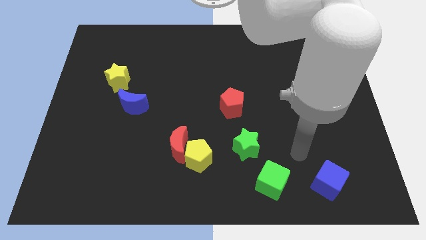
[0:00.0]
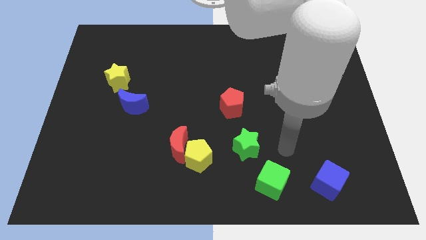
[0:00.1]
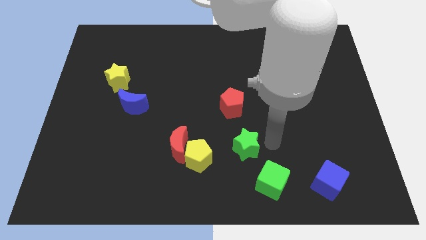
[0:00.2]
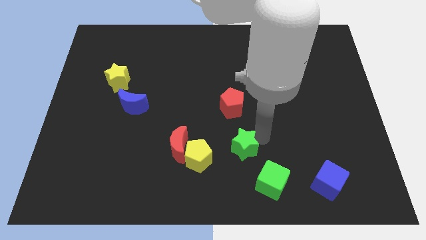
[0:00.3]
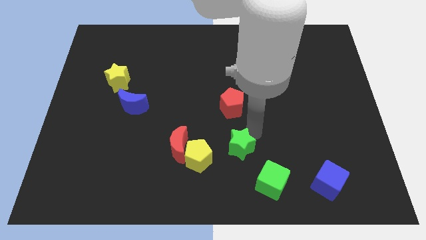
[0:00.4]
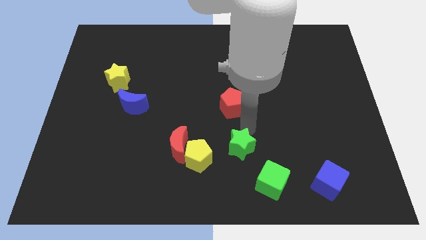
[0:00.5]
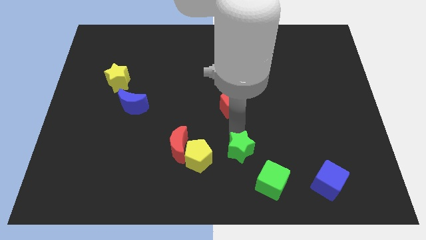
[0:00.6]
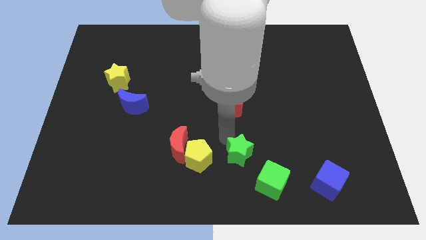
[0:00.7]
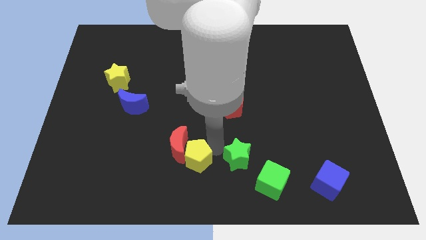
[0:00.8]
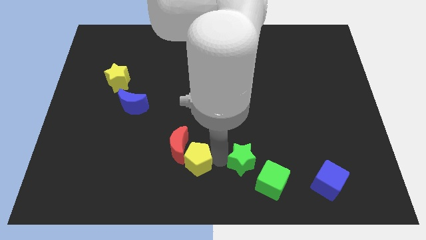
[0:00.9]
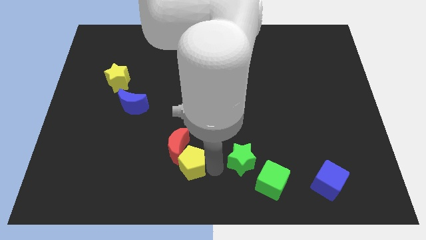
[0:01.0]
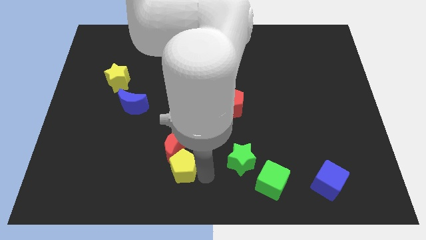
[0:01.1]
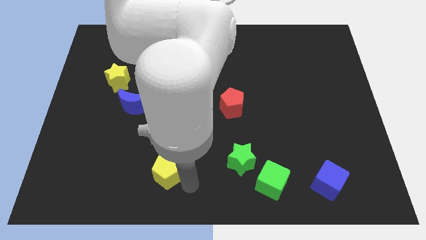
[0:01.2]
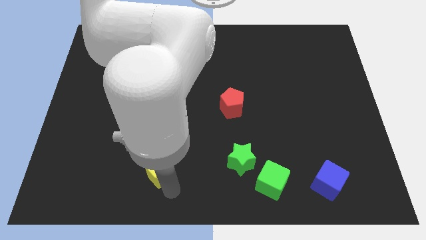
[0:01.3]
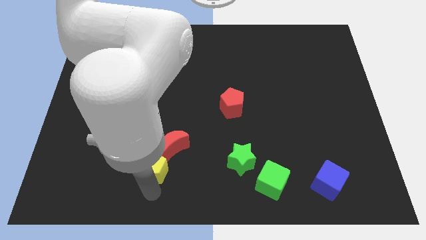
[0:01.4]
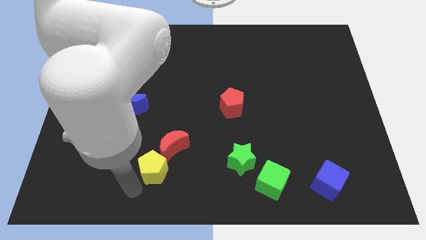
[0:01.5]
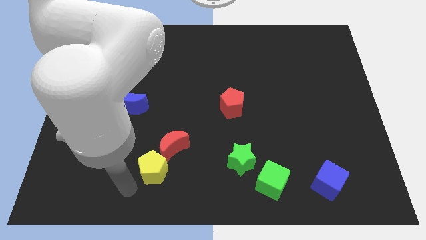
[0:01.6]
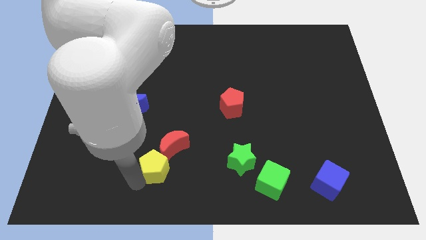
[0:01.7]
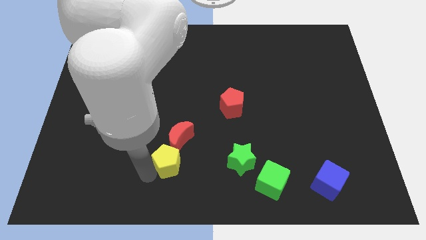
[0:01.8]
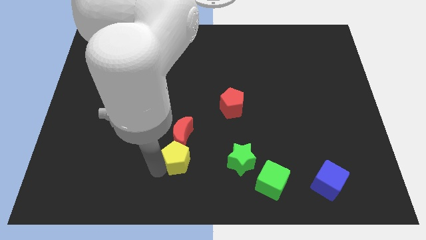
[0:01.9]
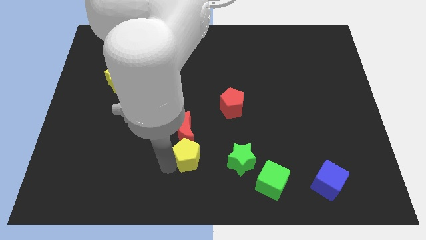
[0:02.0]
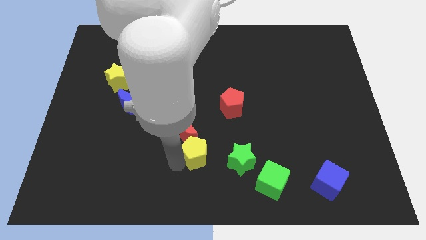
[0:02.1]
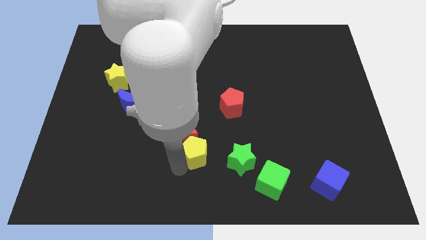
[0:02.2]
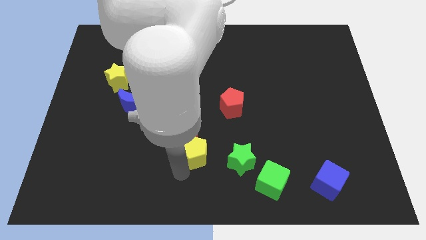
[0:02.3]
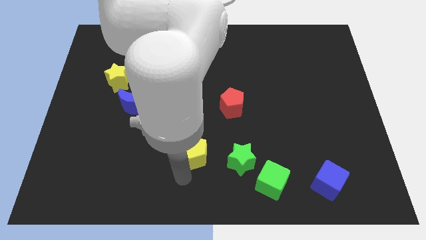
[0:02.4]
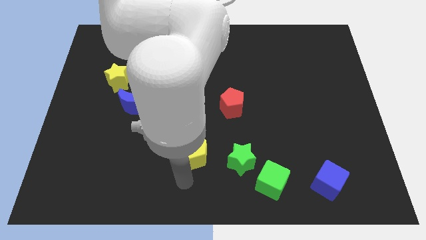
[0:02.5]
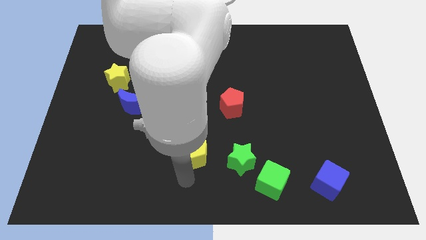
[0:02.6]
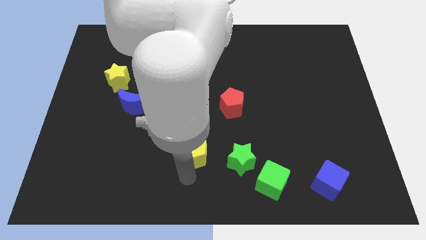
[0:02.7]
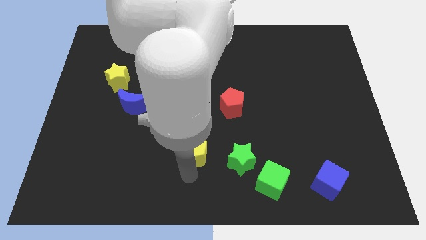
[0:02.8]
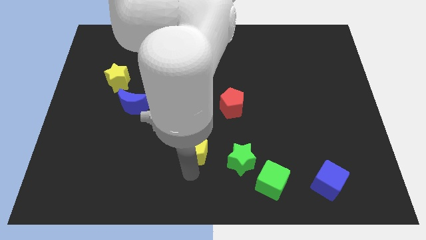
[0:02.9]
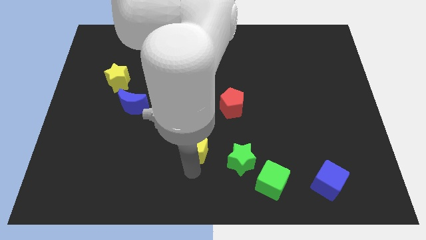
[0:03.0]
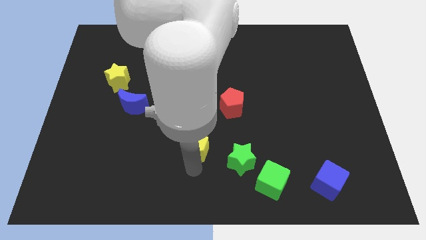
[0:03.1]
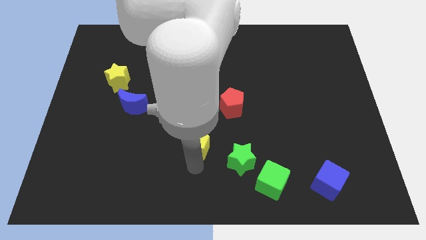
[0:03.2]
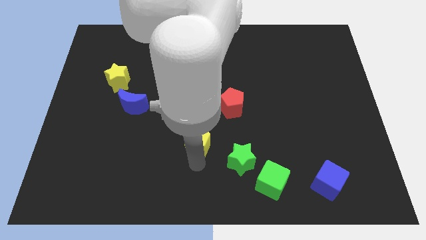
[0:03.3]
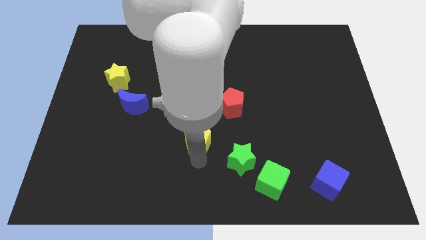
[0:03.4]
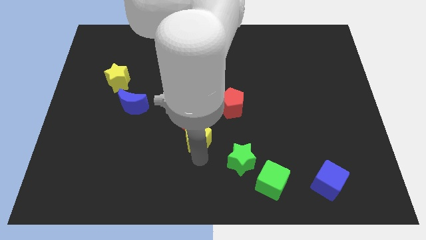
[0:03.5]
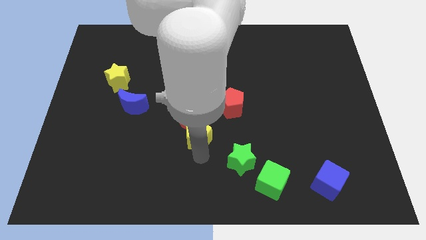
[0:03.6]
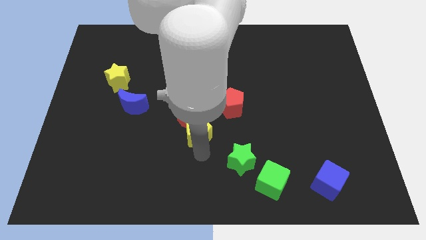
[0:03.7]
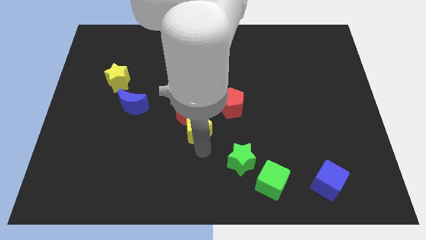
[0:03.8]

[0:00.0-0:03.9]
slightly move the yellow pentagon up

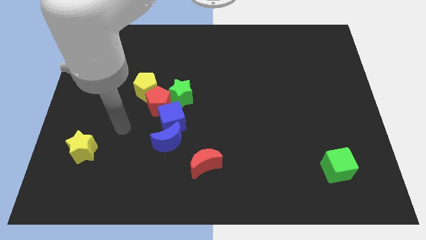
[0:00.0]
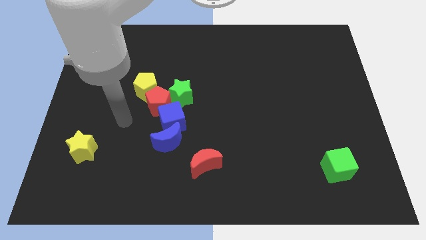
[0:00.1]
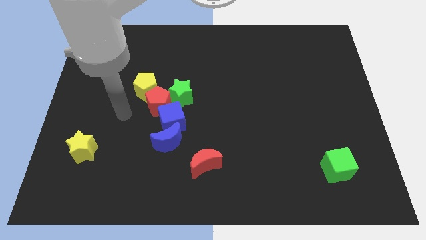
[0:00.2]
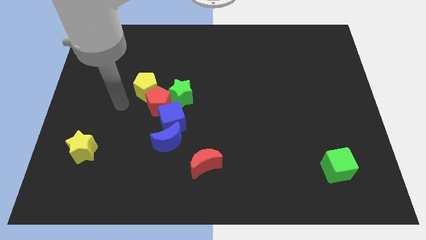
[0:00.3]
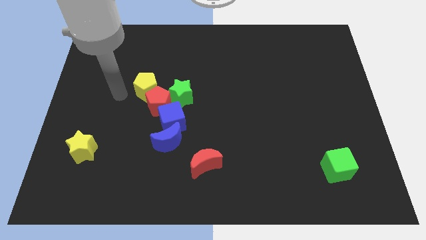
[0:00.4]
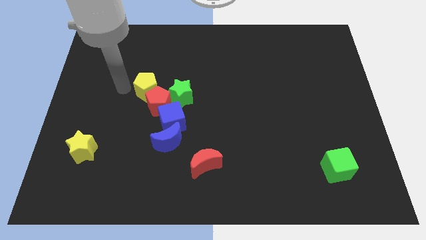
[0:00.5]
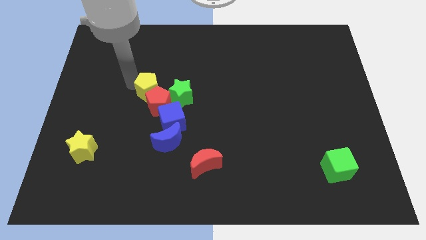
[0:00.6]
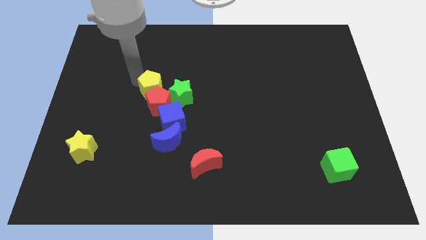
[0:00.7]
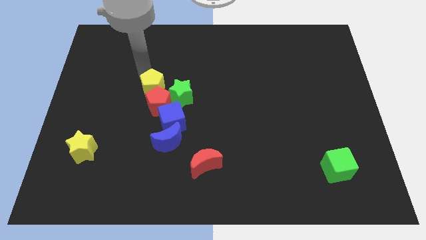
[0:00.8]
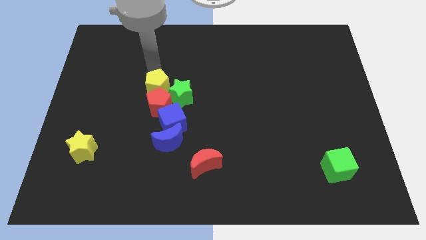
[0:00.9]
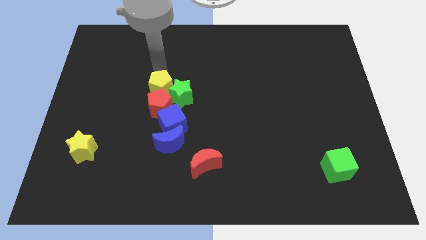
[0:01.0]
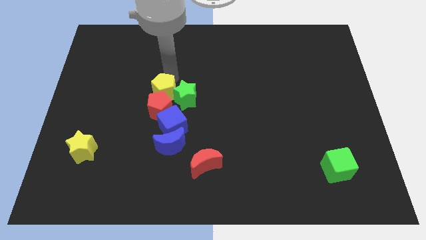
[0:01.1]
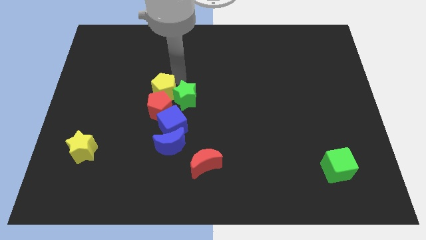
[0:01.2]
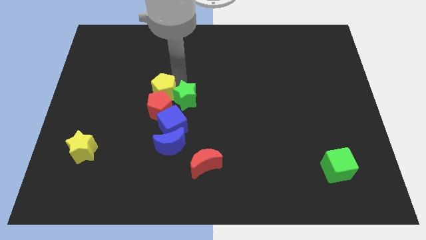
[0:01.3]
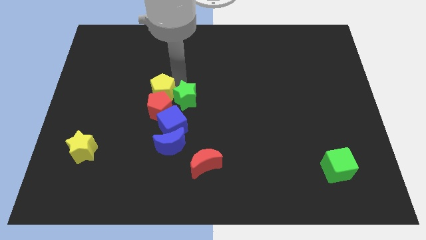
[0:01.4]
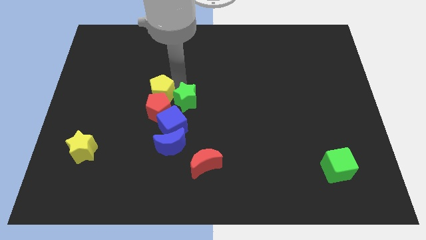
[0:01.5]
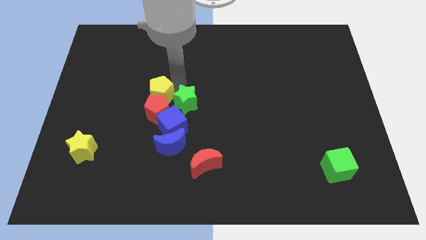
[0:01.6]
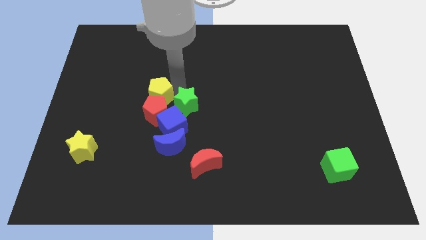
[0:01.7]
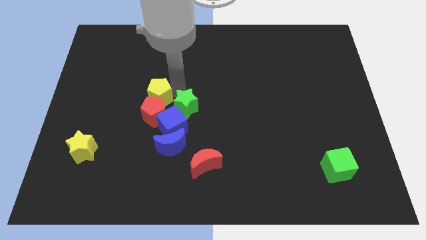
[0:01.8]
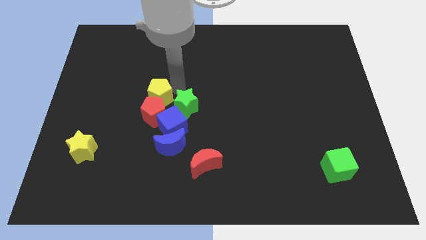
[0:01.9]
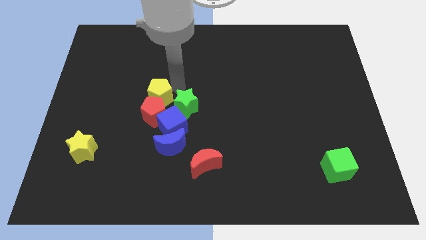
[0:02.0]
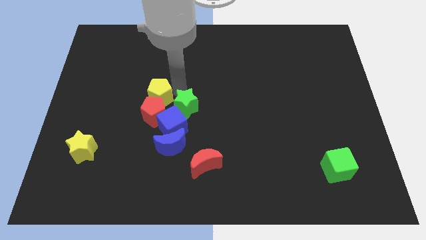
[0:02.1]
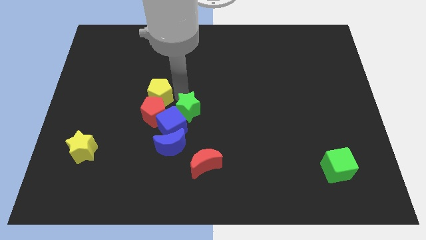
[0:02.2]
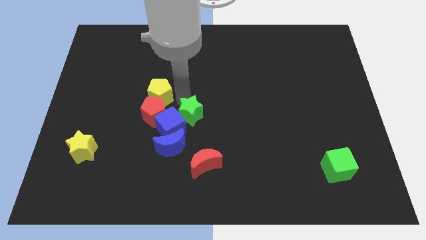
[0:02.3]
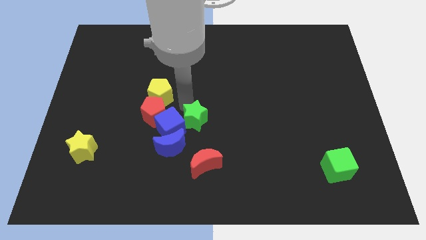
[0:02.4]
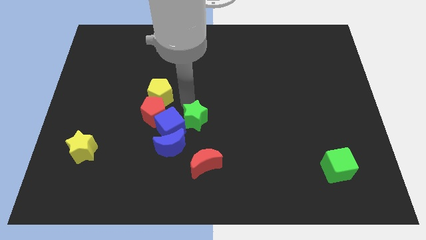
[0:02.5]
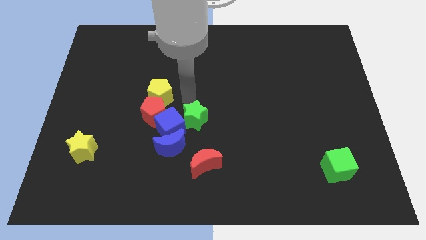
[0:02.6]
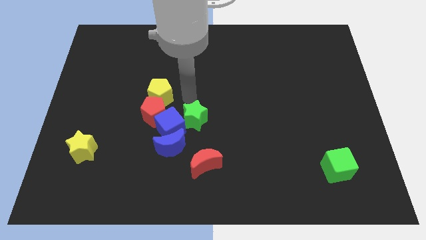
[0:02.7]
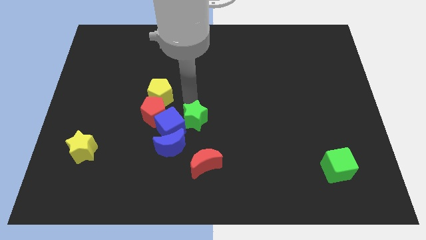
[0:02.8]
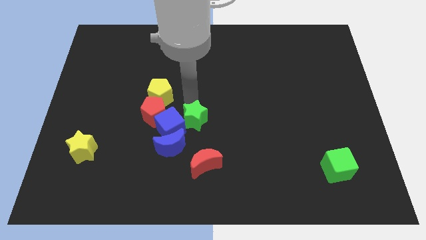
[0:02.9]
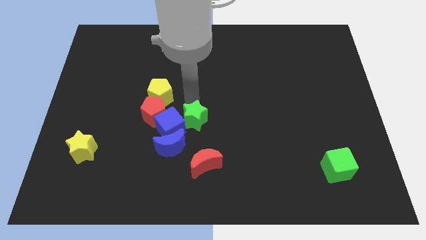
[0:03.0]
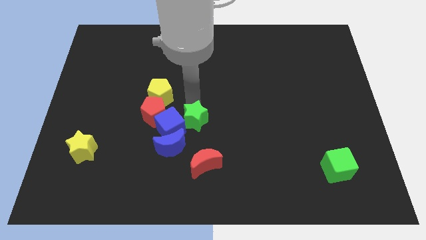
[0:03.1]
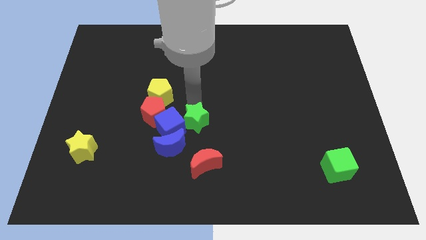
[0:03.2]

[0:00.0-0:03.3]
push the green star a little bit down

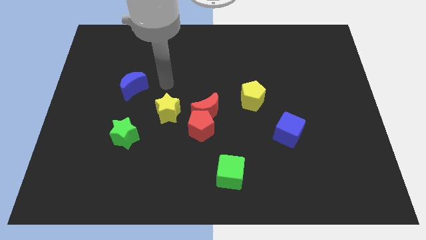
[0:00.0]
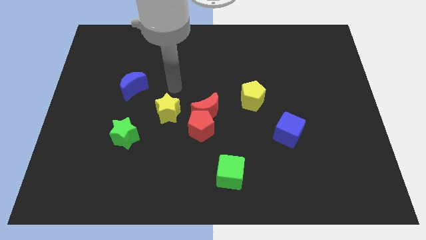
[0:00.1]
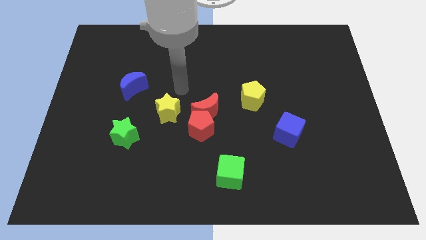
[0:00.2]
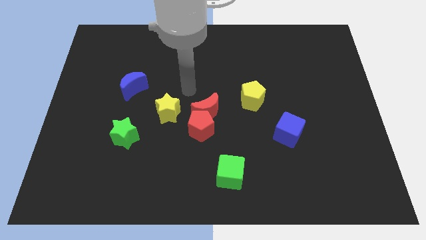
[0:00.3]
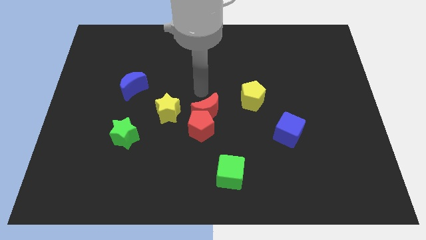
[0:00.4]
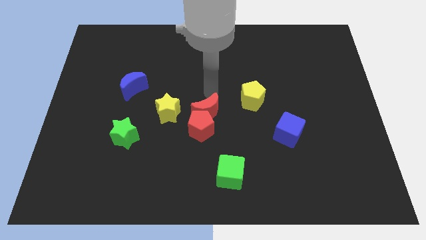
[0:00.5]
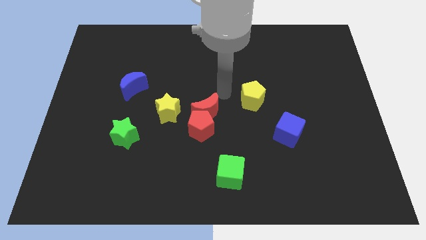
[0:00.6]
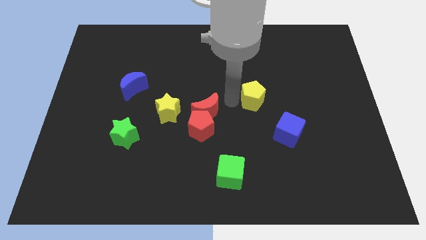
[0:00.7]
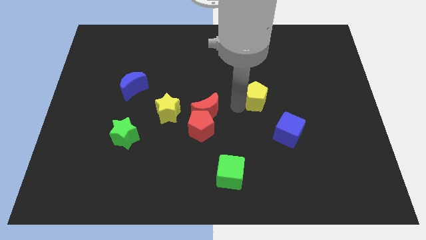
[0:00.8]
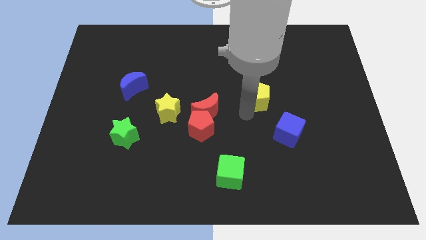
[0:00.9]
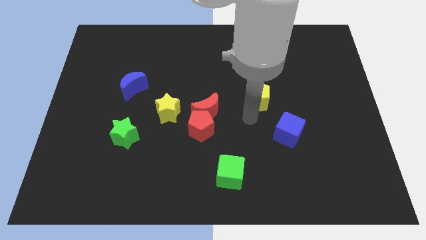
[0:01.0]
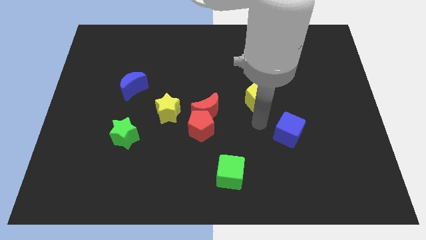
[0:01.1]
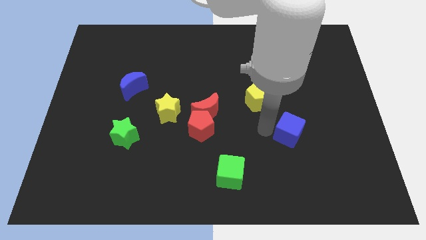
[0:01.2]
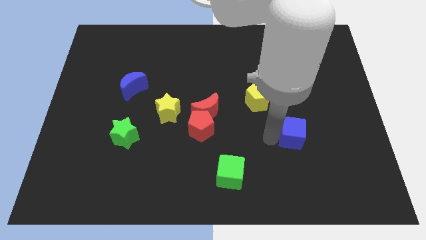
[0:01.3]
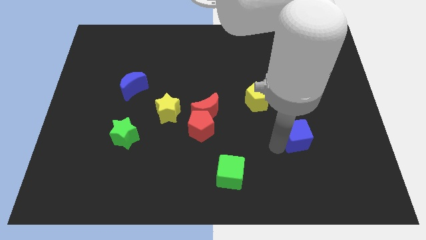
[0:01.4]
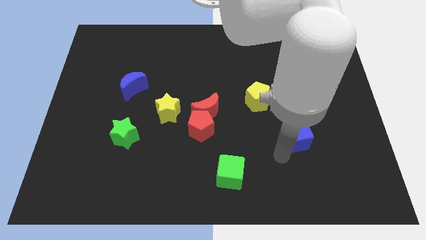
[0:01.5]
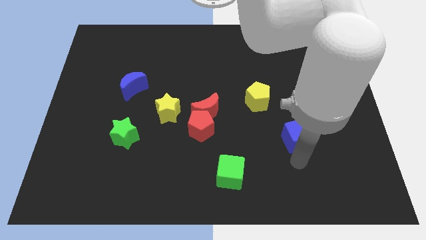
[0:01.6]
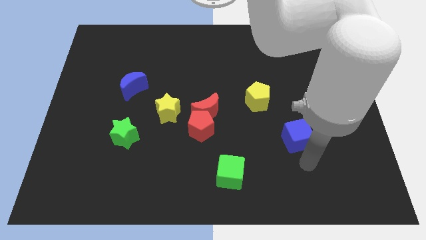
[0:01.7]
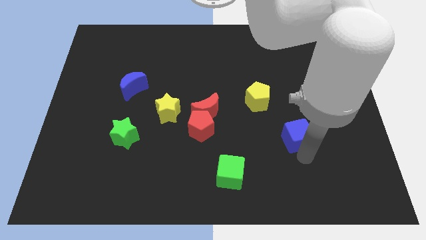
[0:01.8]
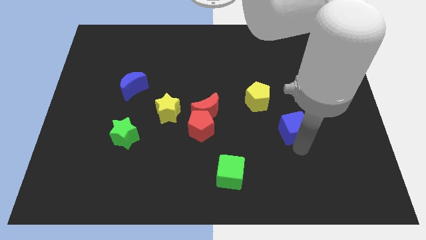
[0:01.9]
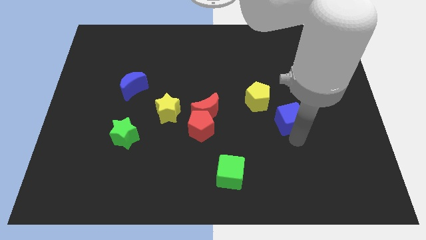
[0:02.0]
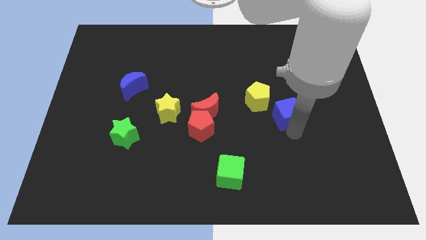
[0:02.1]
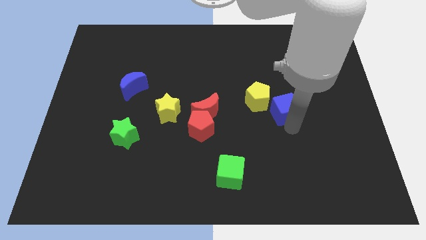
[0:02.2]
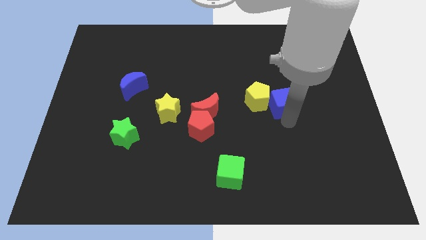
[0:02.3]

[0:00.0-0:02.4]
move the blue cube up somewhat
